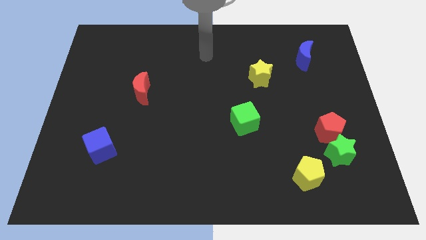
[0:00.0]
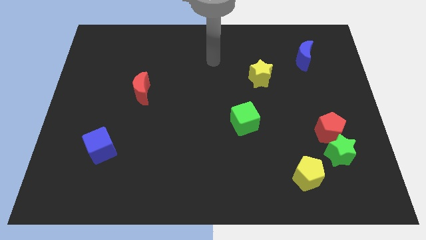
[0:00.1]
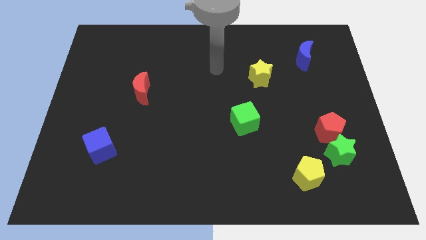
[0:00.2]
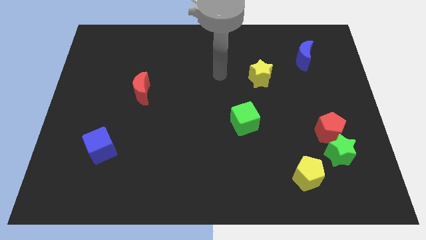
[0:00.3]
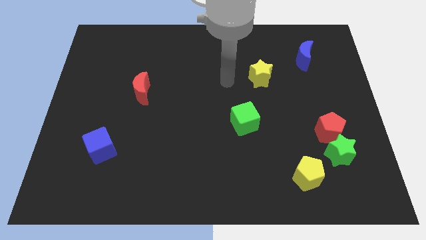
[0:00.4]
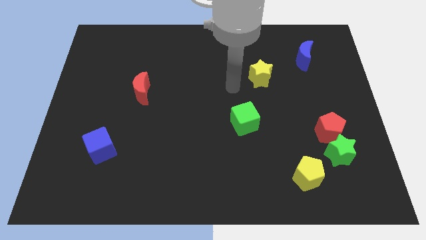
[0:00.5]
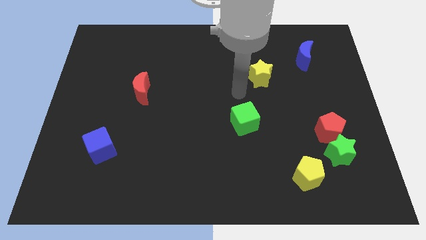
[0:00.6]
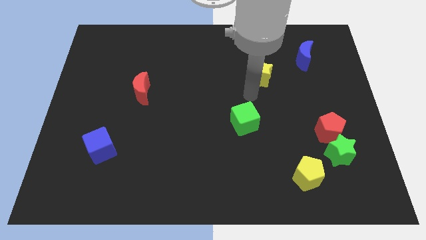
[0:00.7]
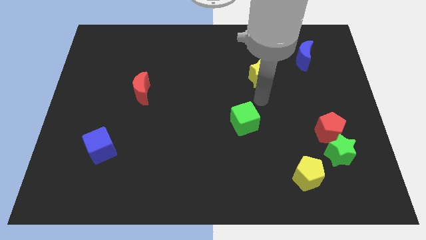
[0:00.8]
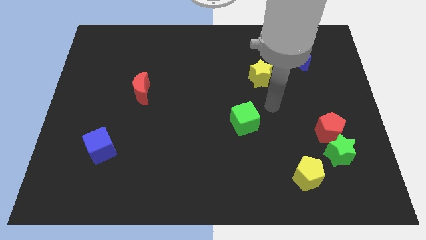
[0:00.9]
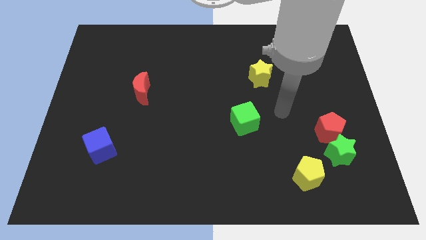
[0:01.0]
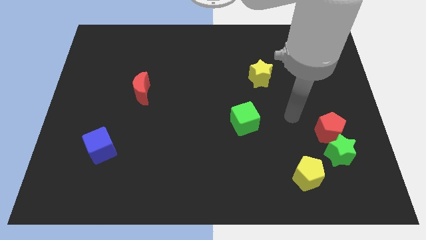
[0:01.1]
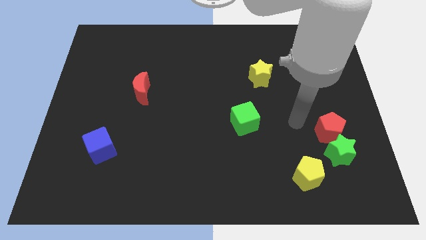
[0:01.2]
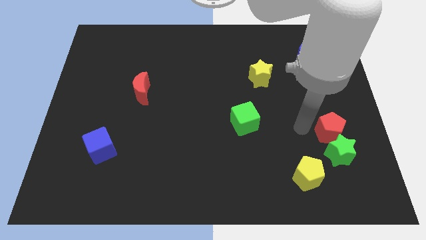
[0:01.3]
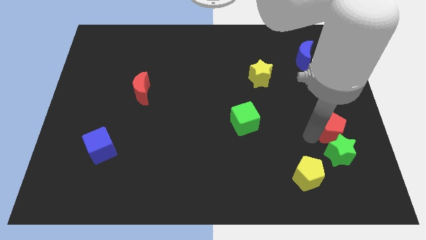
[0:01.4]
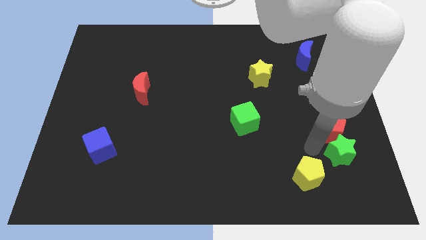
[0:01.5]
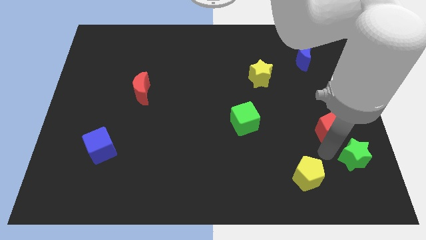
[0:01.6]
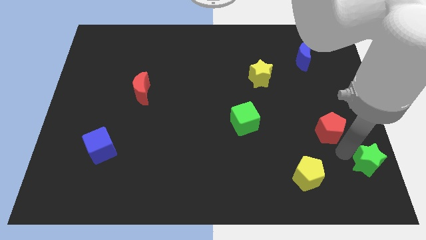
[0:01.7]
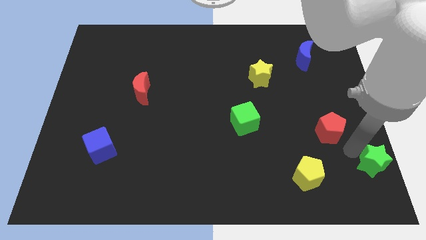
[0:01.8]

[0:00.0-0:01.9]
pull the red pentagon apart from the green star

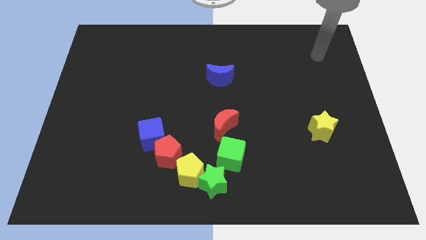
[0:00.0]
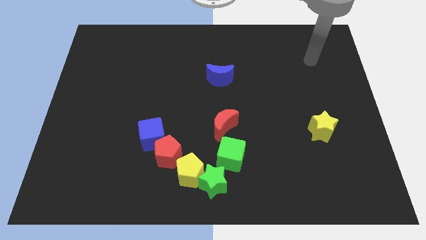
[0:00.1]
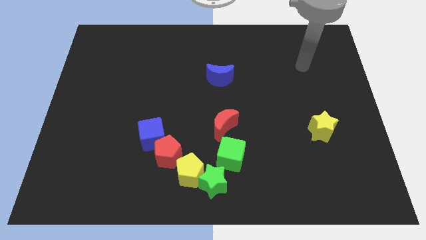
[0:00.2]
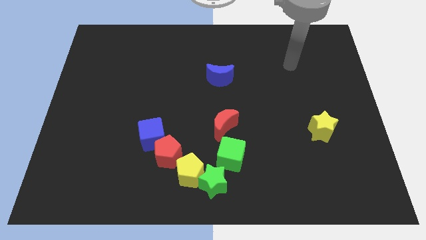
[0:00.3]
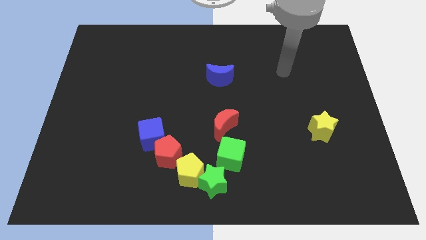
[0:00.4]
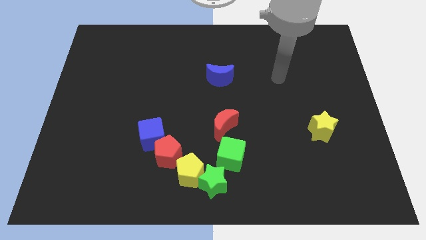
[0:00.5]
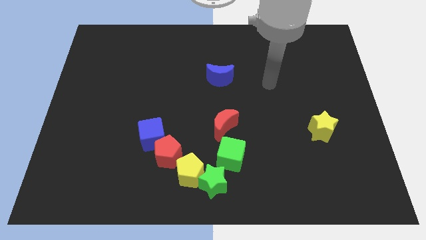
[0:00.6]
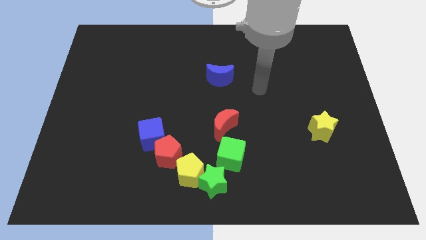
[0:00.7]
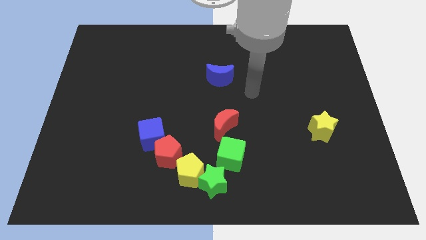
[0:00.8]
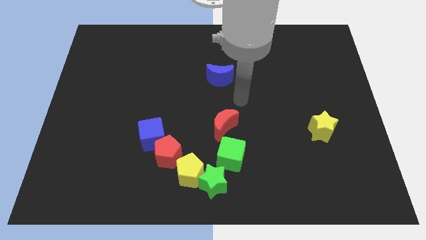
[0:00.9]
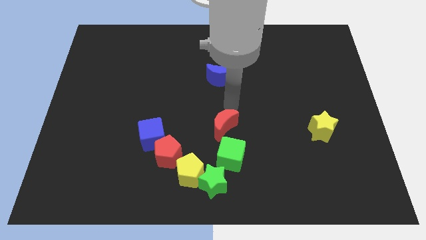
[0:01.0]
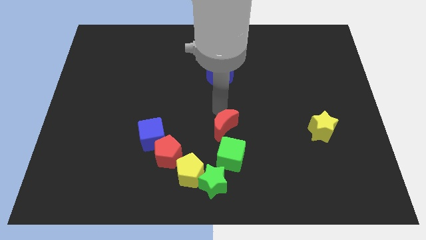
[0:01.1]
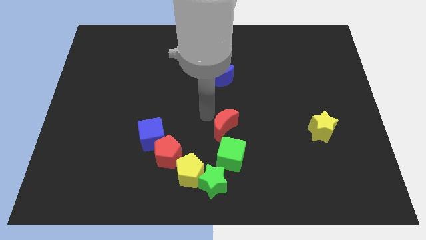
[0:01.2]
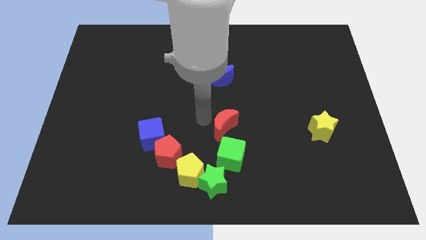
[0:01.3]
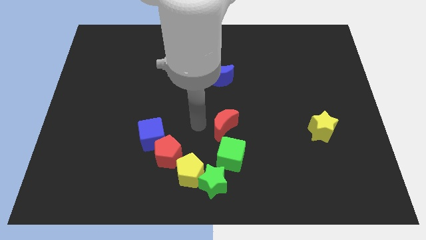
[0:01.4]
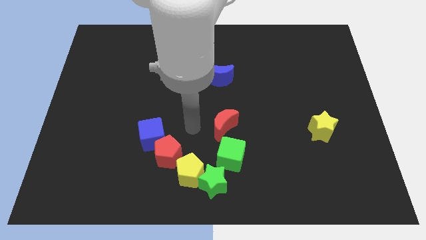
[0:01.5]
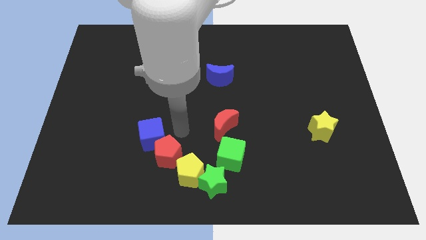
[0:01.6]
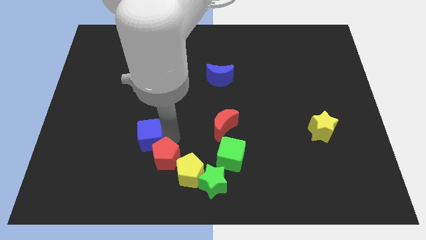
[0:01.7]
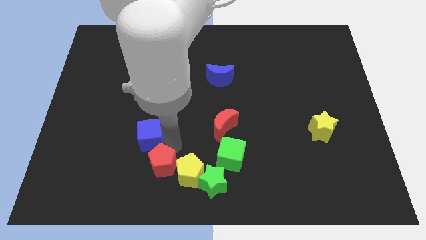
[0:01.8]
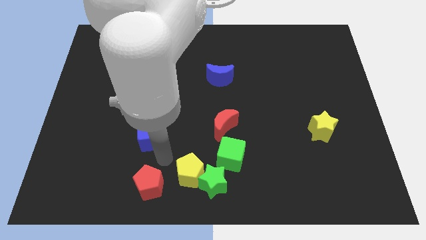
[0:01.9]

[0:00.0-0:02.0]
separate the blue cube from the red pentagon

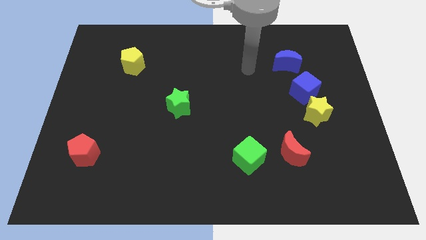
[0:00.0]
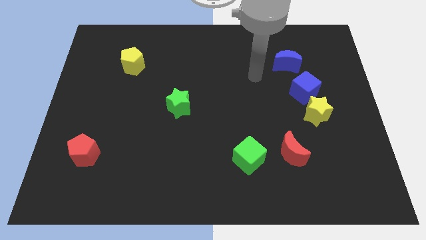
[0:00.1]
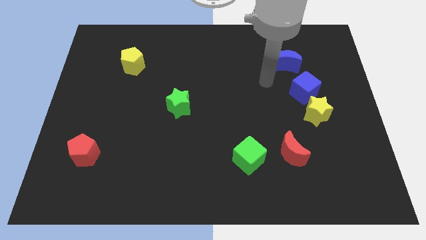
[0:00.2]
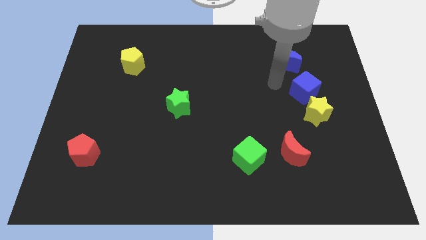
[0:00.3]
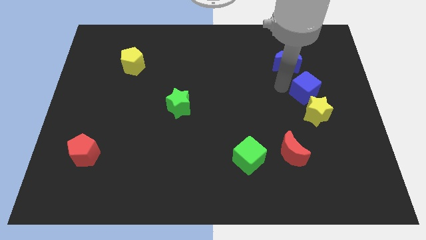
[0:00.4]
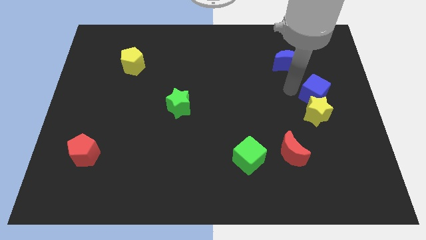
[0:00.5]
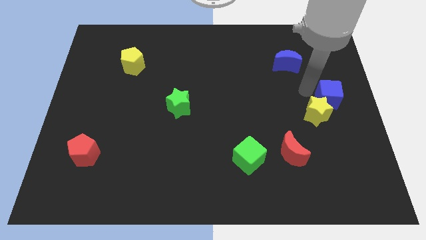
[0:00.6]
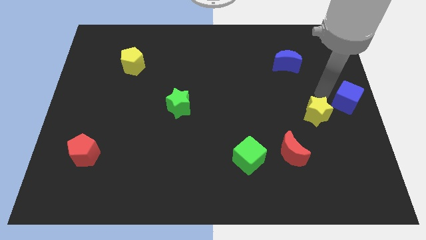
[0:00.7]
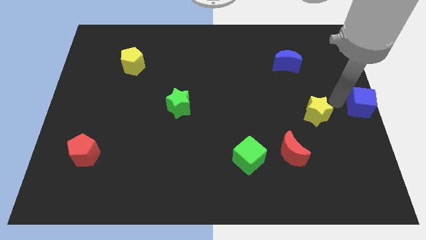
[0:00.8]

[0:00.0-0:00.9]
pull the yellow star apart from the blue cube

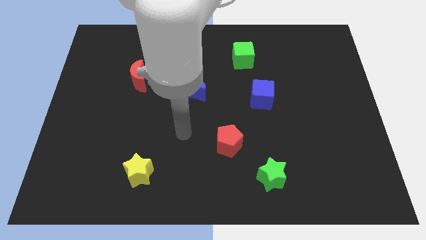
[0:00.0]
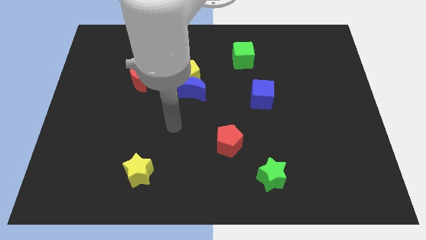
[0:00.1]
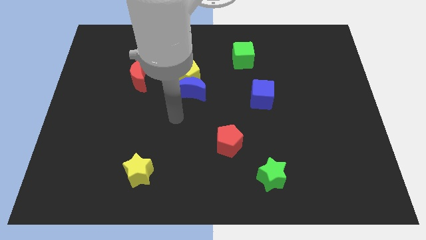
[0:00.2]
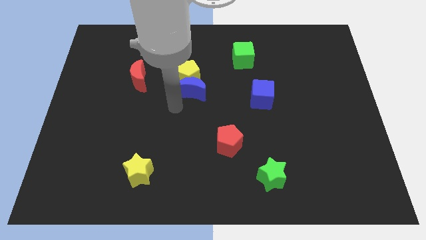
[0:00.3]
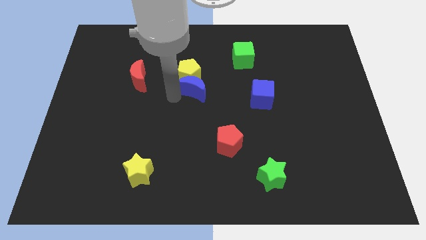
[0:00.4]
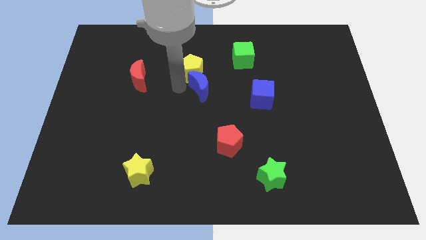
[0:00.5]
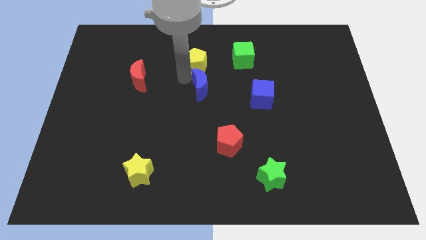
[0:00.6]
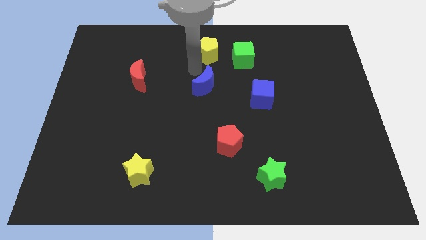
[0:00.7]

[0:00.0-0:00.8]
pull the blue moon apart from the yellow pentagon

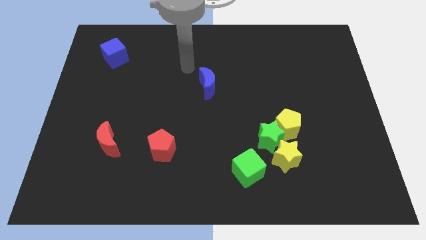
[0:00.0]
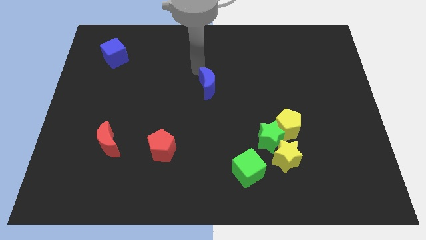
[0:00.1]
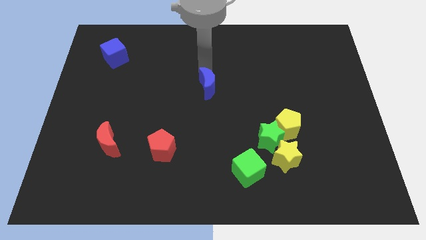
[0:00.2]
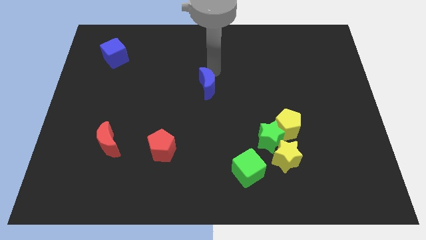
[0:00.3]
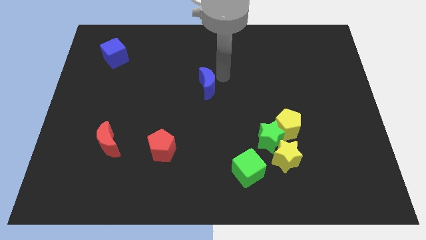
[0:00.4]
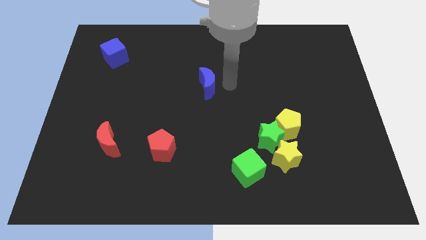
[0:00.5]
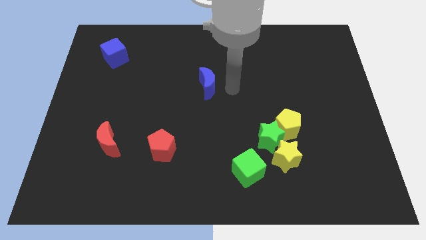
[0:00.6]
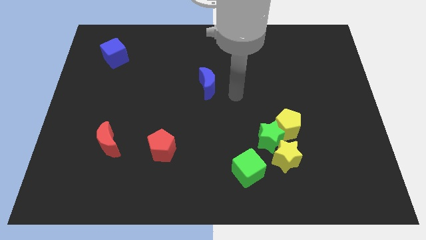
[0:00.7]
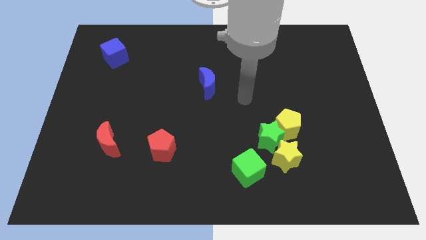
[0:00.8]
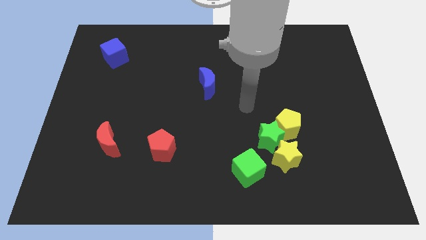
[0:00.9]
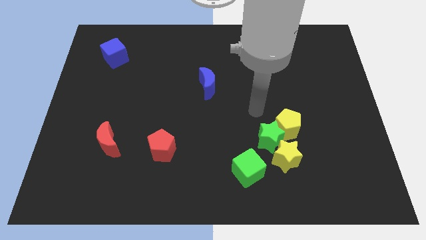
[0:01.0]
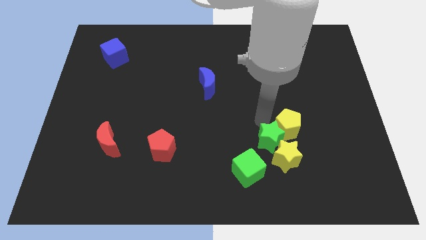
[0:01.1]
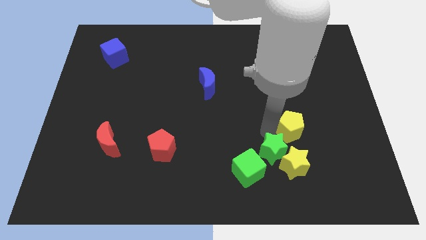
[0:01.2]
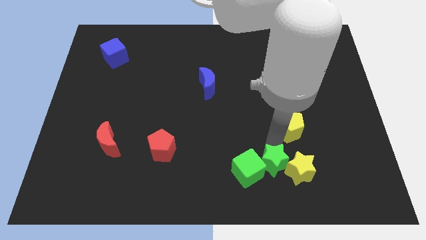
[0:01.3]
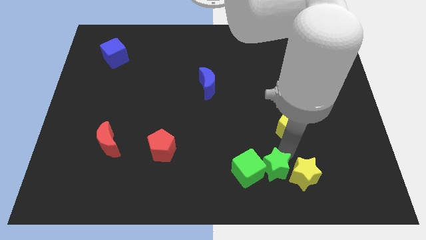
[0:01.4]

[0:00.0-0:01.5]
move the yellow pentagon away from the green star and yellow star

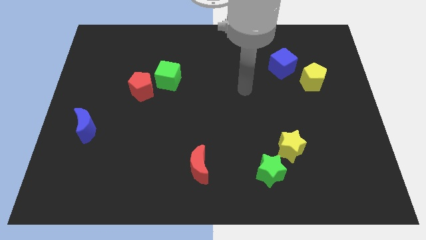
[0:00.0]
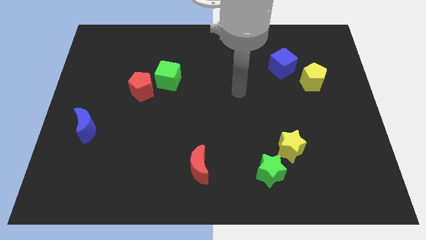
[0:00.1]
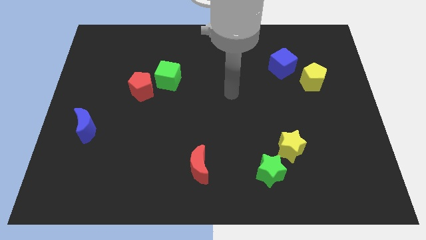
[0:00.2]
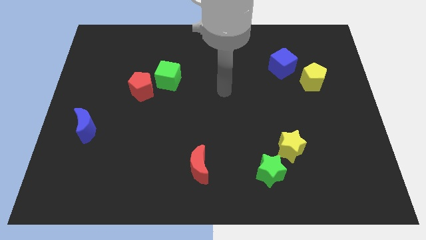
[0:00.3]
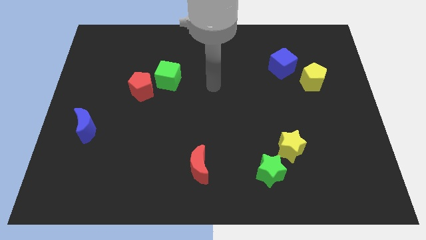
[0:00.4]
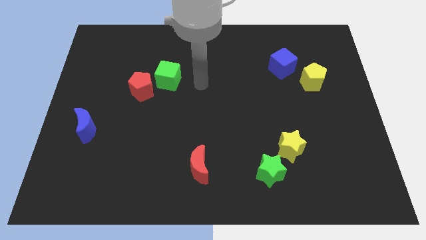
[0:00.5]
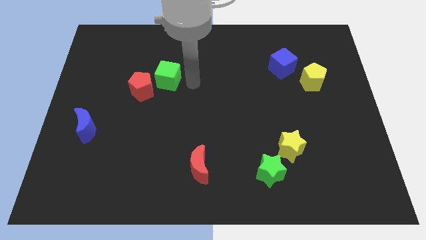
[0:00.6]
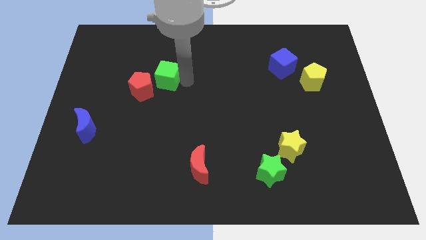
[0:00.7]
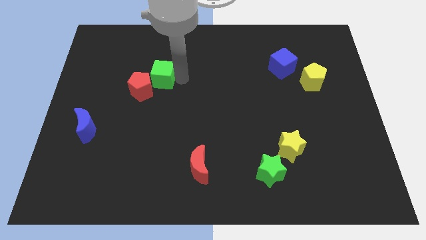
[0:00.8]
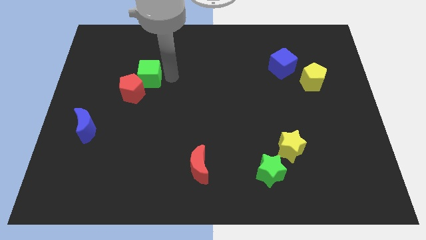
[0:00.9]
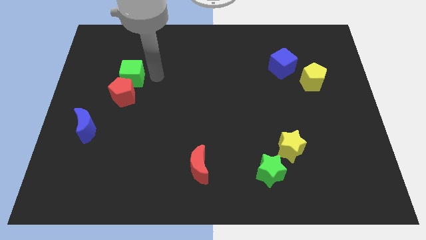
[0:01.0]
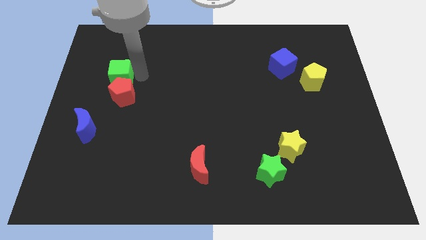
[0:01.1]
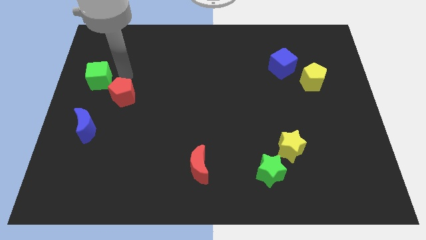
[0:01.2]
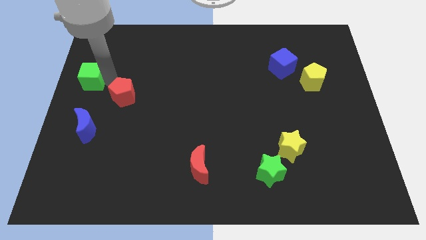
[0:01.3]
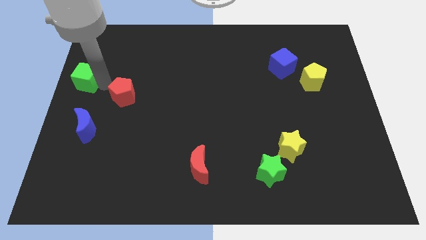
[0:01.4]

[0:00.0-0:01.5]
separate the red pentagon from the green cube

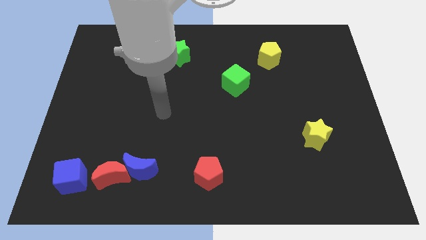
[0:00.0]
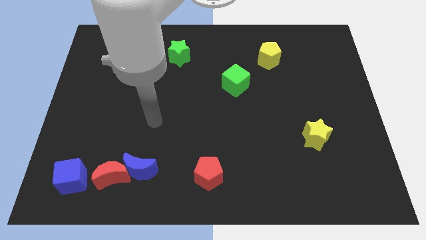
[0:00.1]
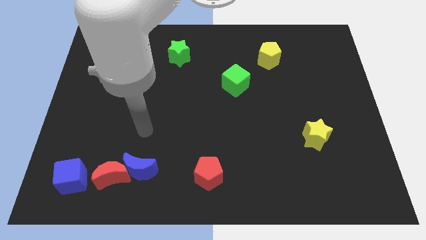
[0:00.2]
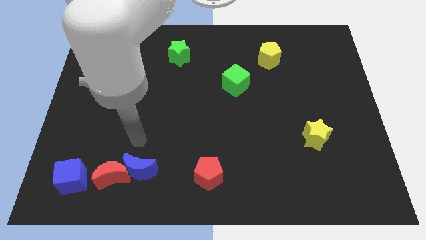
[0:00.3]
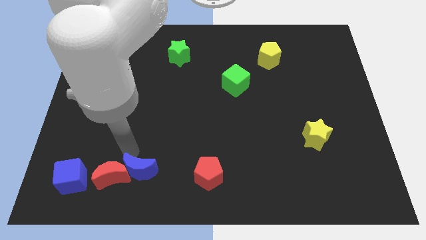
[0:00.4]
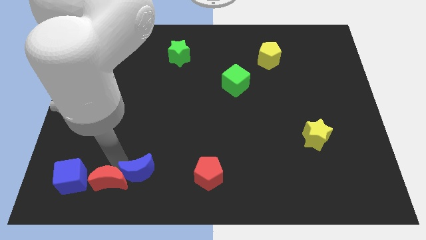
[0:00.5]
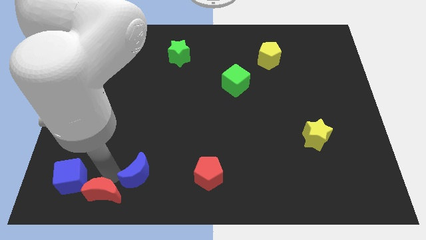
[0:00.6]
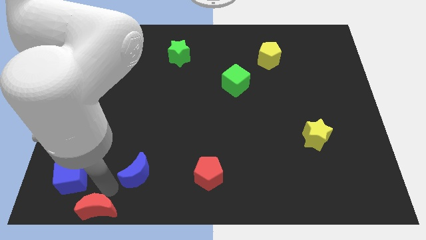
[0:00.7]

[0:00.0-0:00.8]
move the blue moon away from the red moon

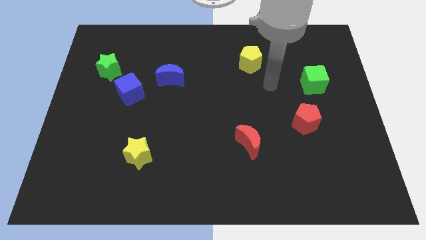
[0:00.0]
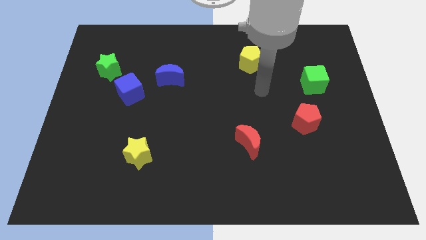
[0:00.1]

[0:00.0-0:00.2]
separate the blue cube from the green star
